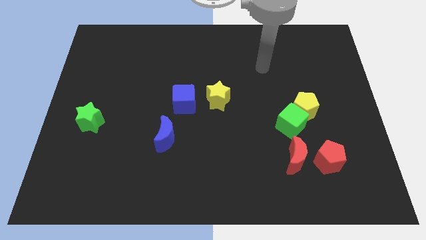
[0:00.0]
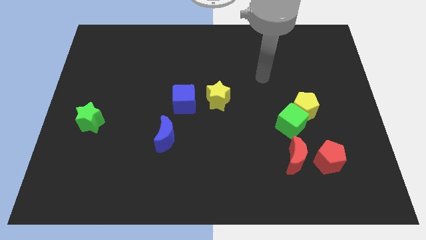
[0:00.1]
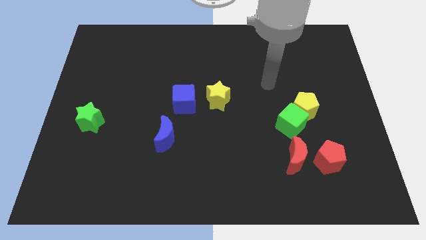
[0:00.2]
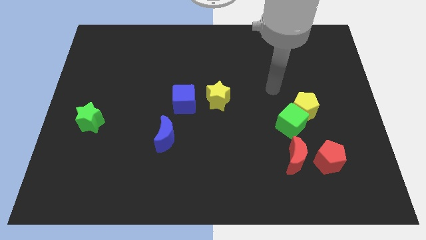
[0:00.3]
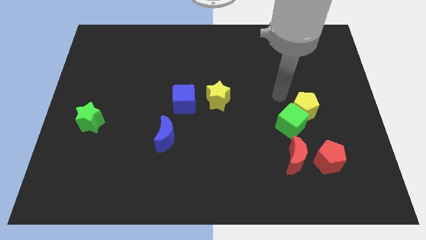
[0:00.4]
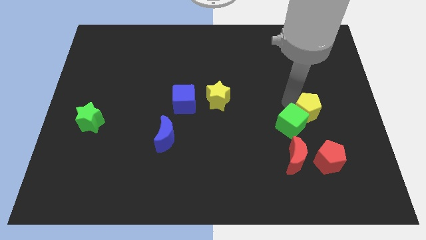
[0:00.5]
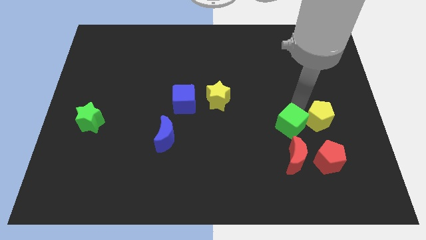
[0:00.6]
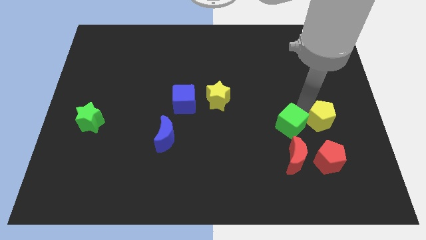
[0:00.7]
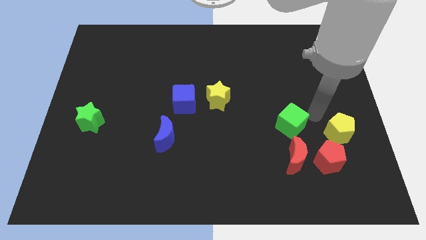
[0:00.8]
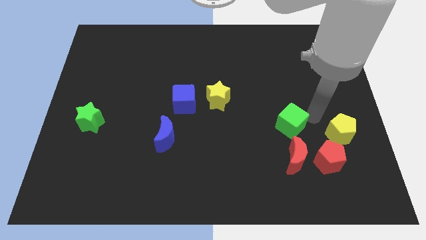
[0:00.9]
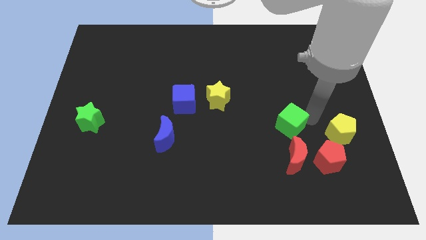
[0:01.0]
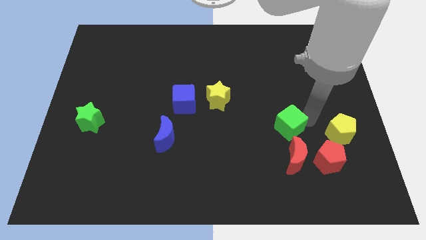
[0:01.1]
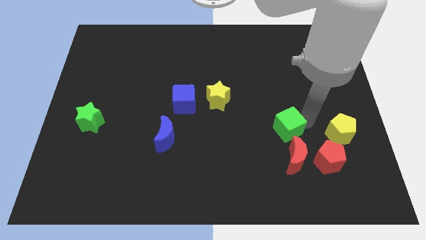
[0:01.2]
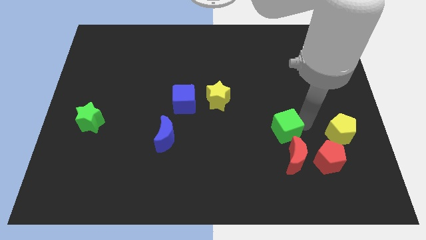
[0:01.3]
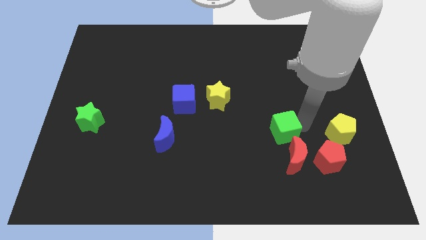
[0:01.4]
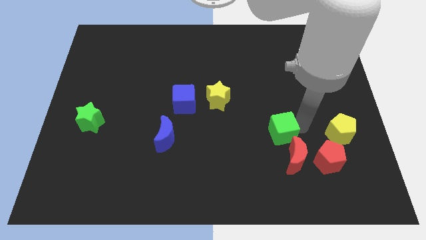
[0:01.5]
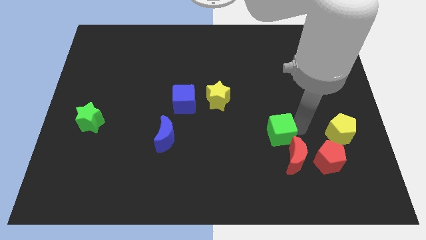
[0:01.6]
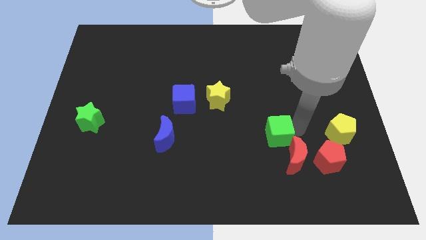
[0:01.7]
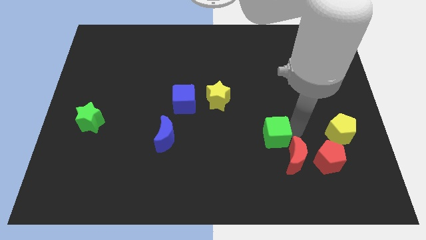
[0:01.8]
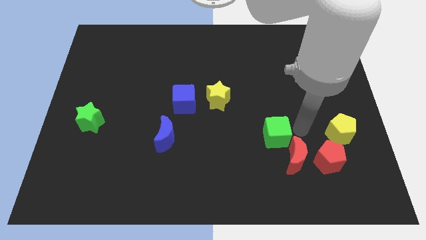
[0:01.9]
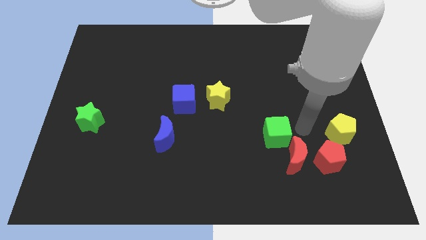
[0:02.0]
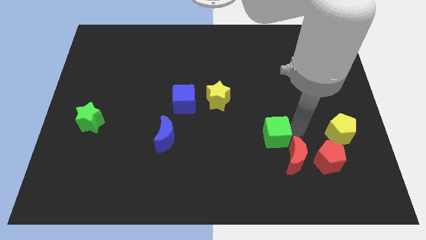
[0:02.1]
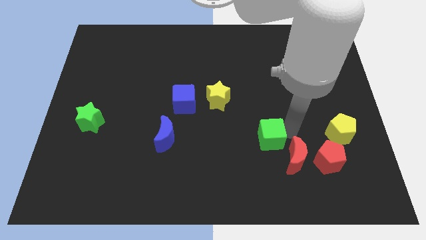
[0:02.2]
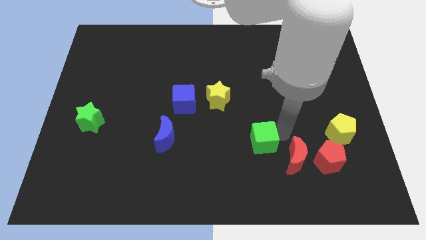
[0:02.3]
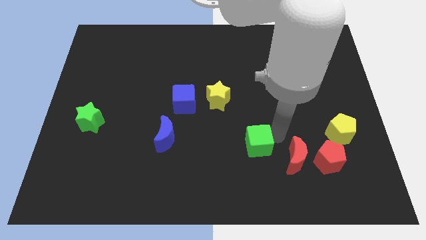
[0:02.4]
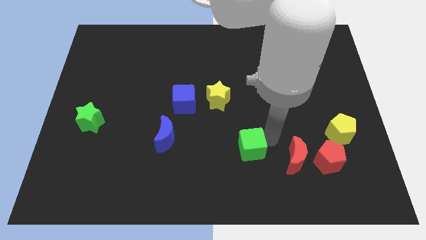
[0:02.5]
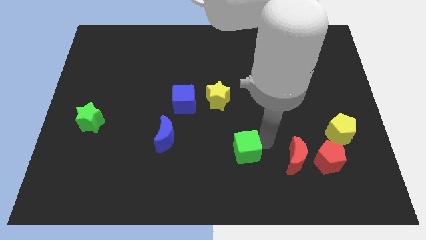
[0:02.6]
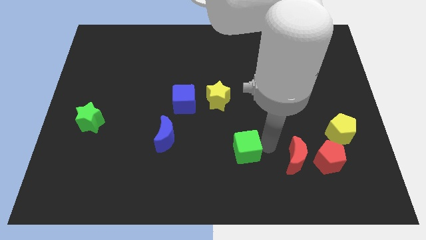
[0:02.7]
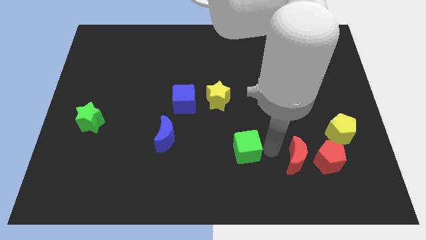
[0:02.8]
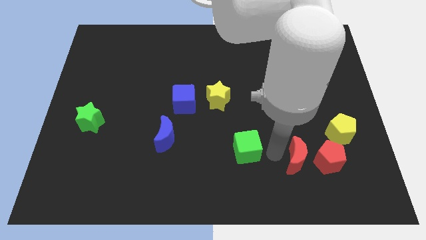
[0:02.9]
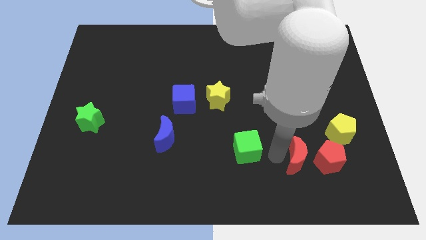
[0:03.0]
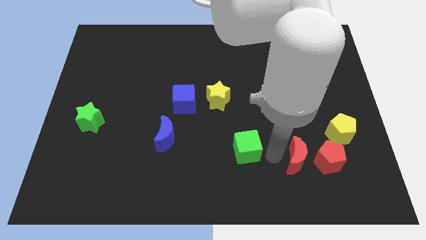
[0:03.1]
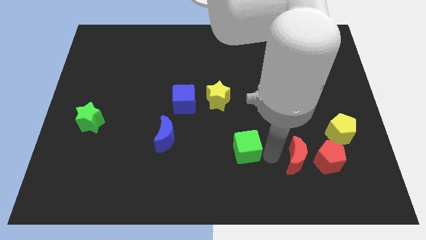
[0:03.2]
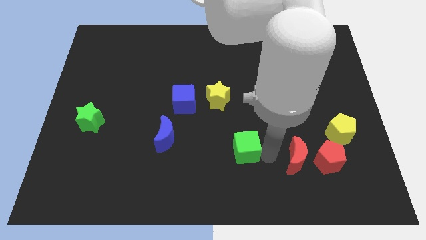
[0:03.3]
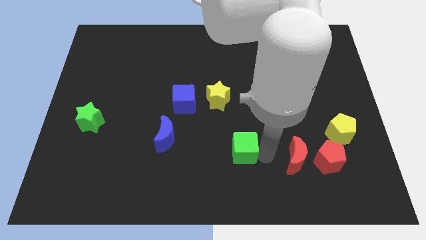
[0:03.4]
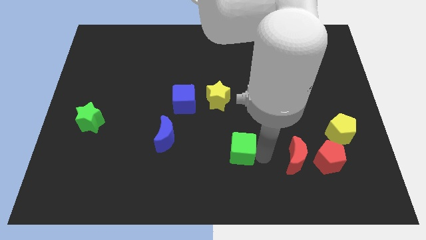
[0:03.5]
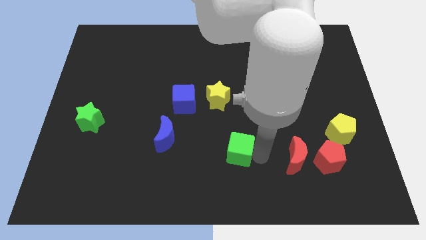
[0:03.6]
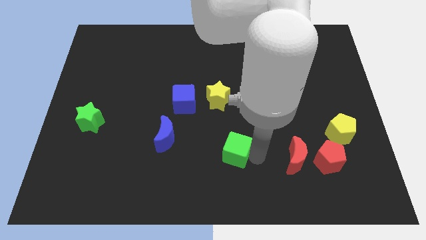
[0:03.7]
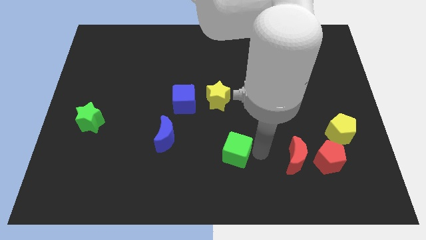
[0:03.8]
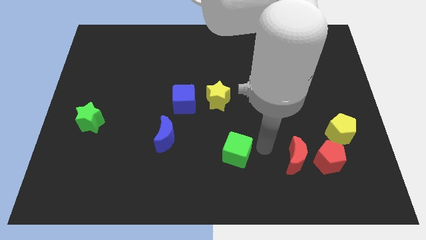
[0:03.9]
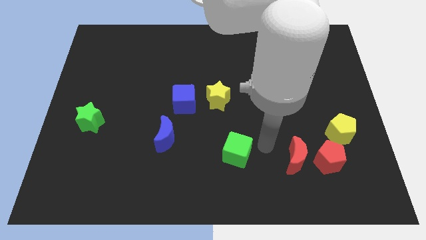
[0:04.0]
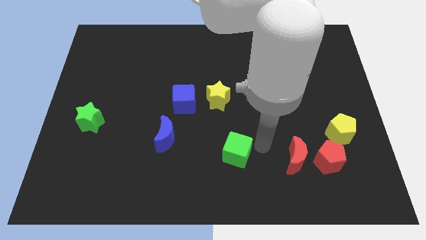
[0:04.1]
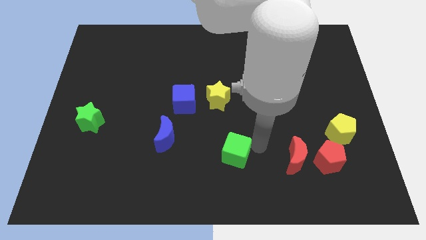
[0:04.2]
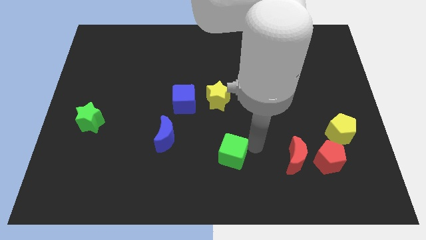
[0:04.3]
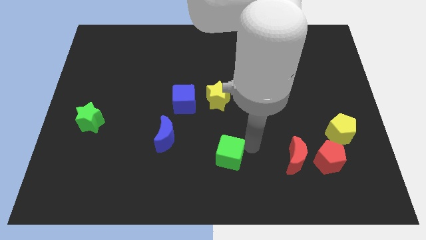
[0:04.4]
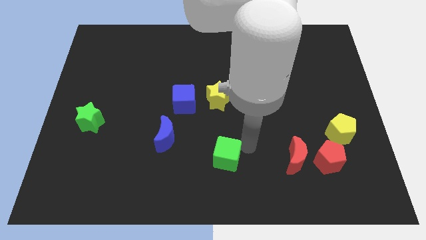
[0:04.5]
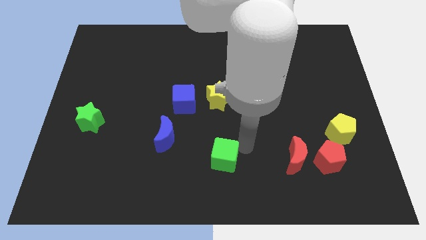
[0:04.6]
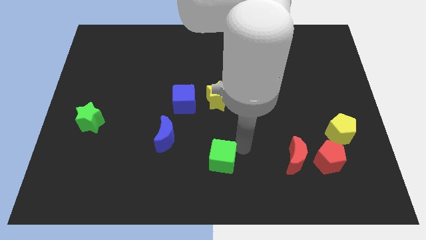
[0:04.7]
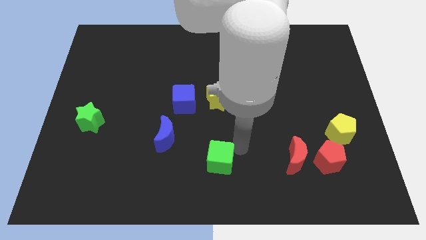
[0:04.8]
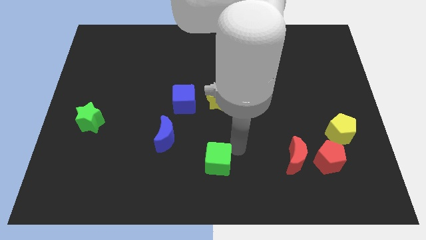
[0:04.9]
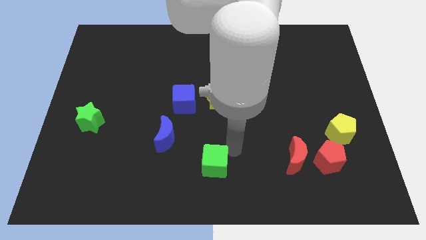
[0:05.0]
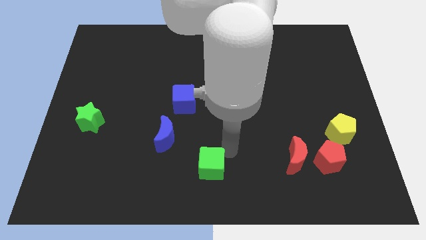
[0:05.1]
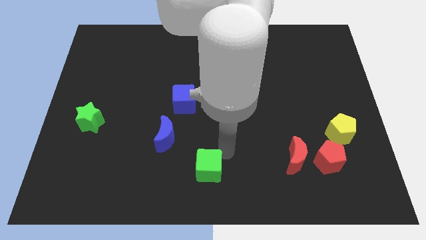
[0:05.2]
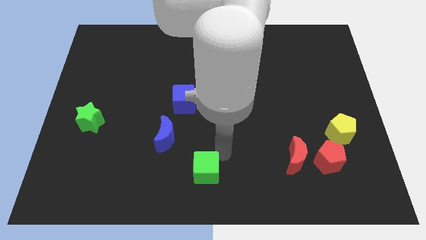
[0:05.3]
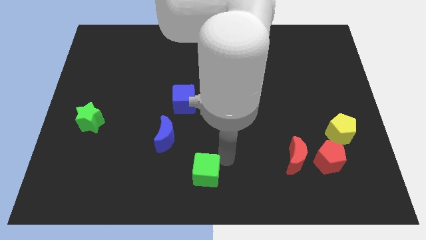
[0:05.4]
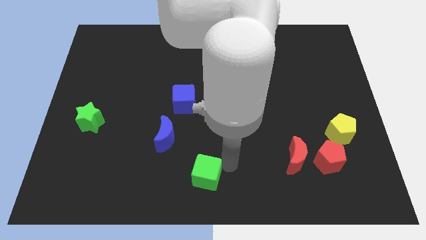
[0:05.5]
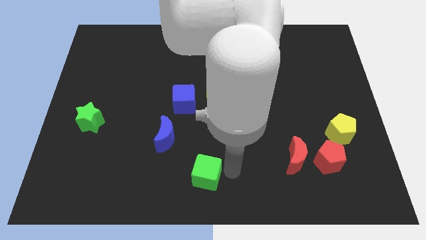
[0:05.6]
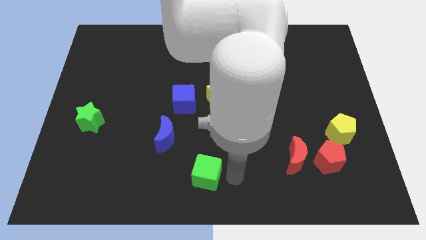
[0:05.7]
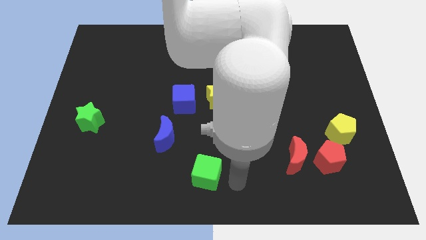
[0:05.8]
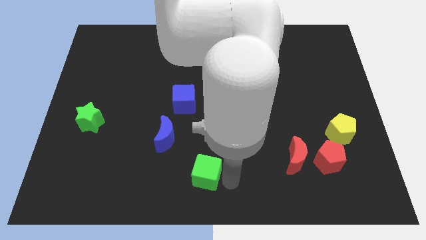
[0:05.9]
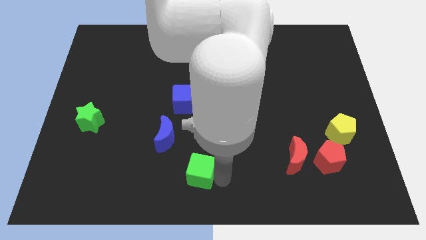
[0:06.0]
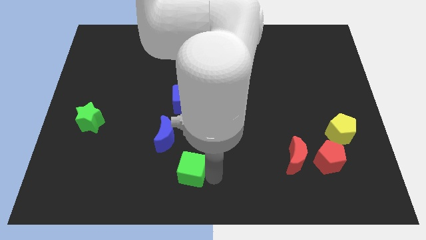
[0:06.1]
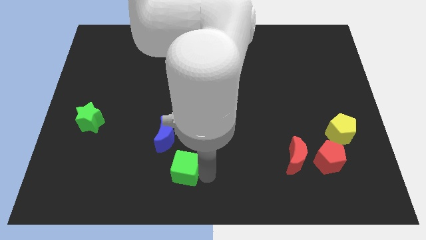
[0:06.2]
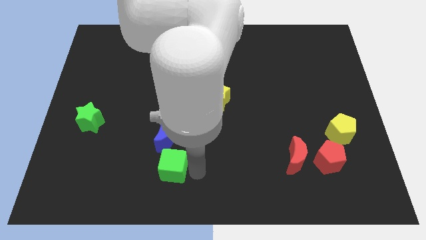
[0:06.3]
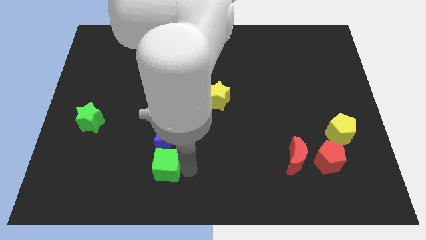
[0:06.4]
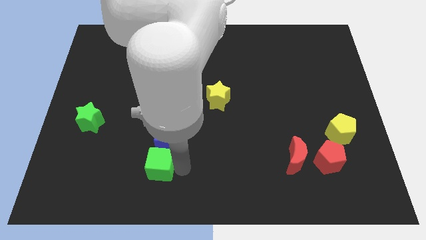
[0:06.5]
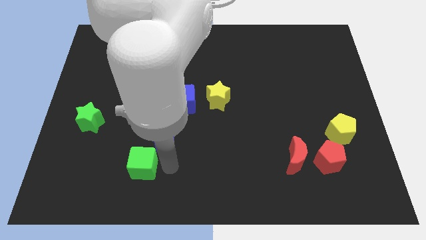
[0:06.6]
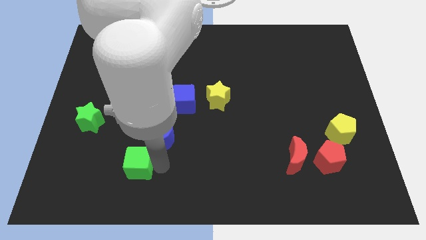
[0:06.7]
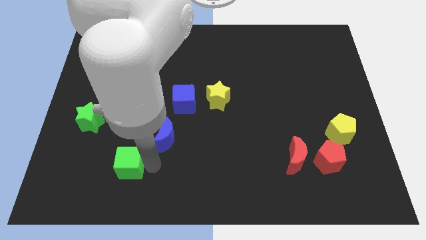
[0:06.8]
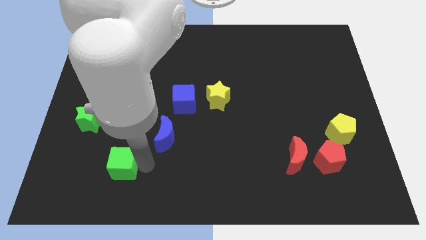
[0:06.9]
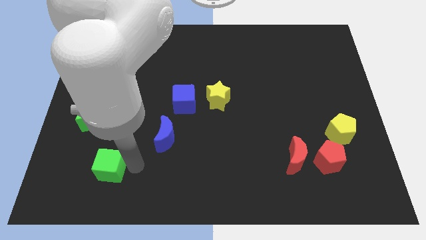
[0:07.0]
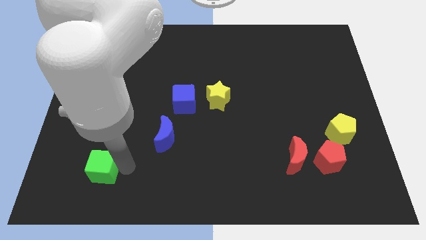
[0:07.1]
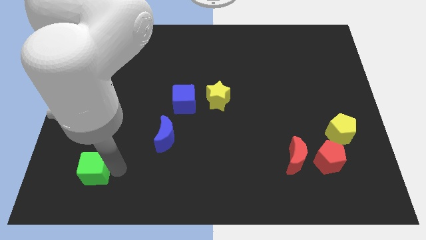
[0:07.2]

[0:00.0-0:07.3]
push the green cube below the green star
